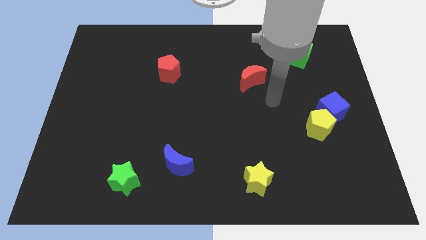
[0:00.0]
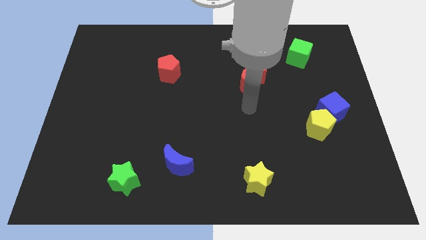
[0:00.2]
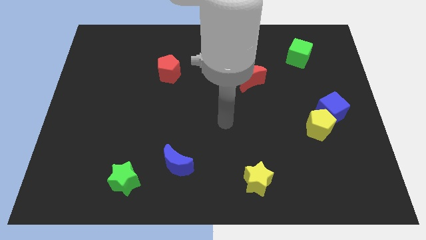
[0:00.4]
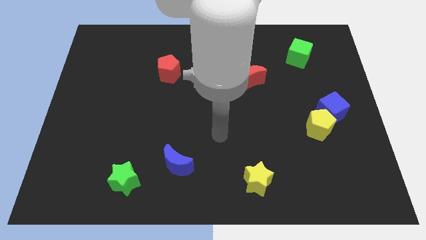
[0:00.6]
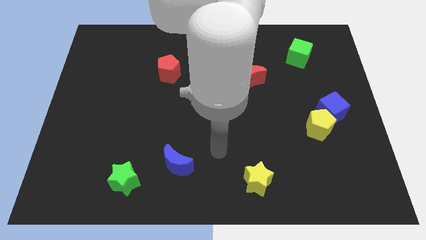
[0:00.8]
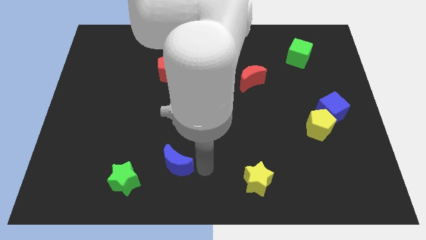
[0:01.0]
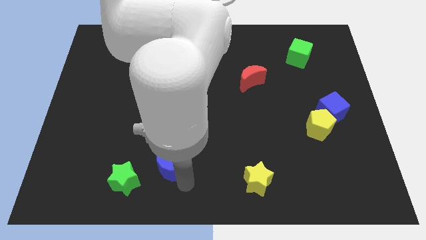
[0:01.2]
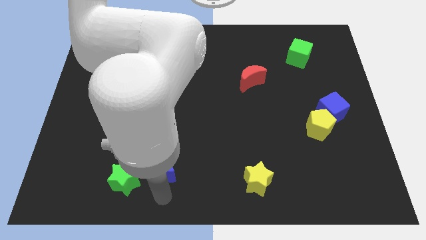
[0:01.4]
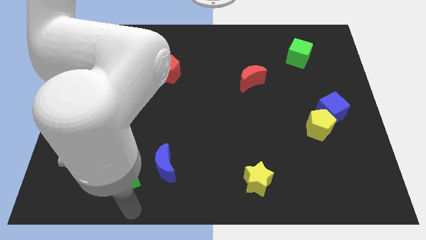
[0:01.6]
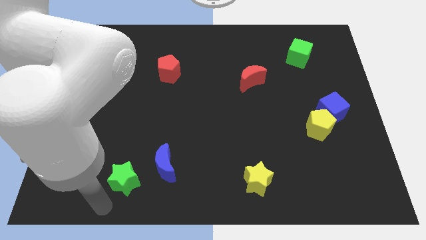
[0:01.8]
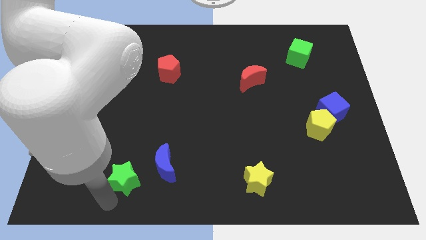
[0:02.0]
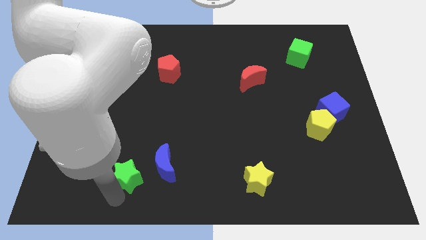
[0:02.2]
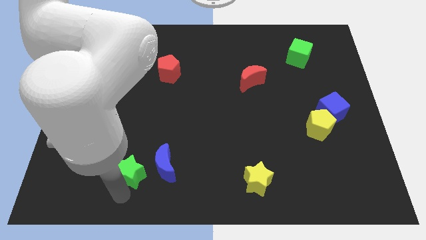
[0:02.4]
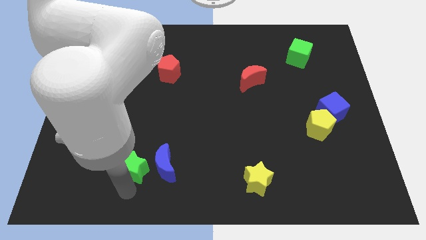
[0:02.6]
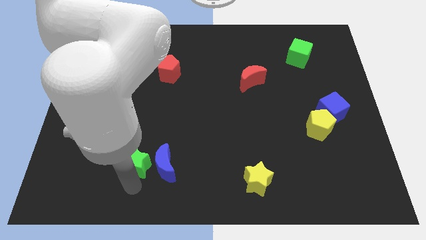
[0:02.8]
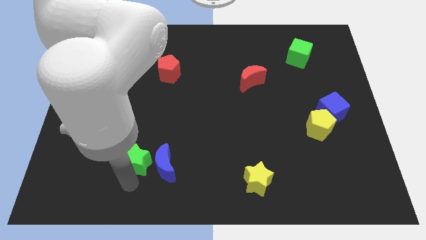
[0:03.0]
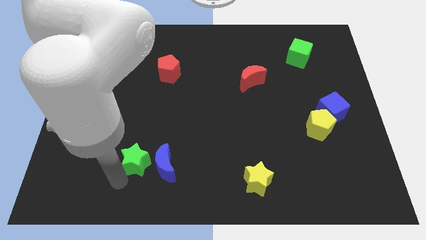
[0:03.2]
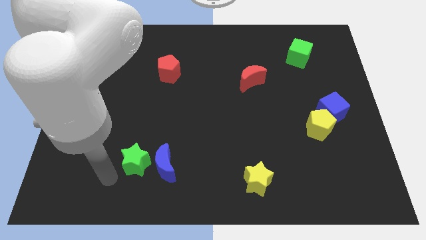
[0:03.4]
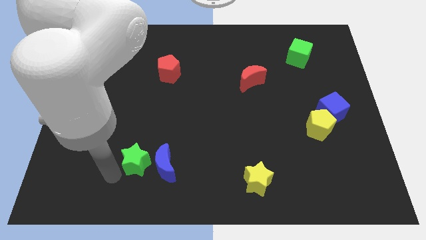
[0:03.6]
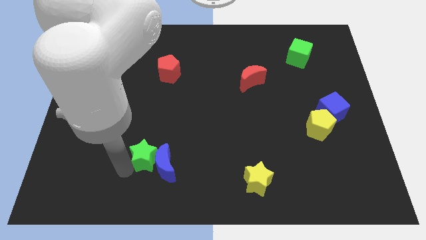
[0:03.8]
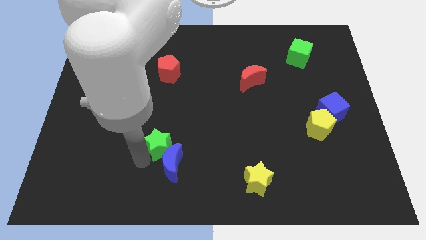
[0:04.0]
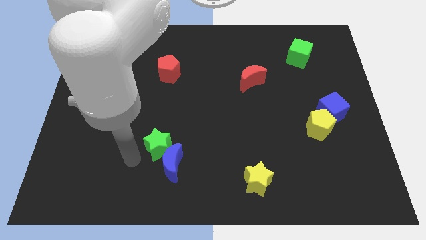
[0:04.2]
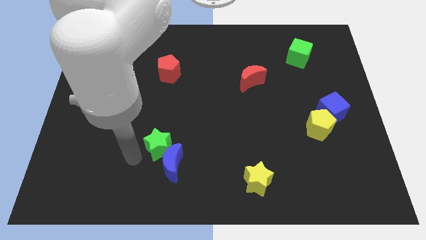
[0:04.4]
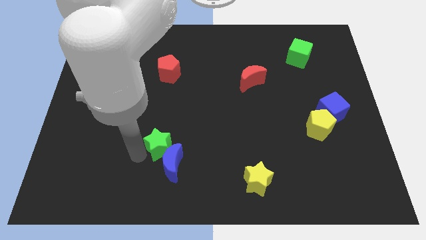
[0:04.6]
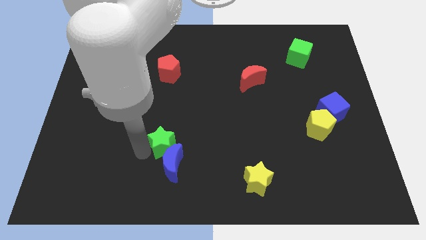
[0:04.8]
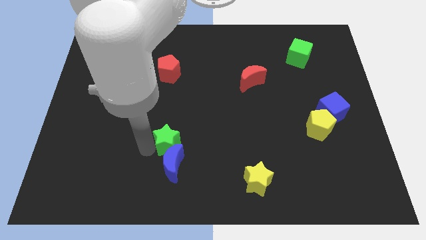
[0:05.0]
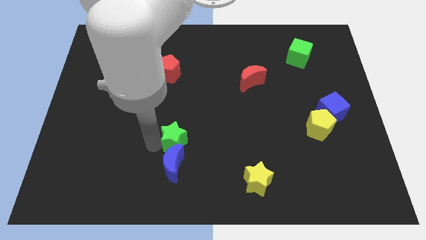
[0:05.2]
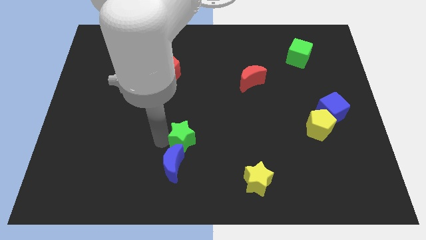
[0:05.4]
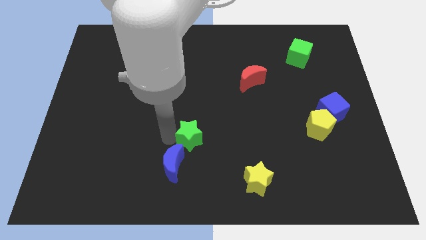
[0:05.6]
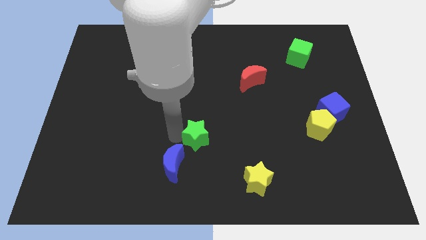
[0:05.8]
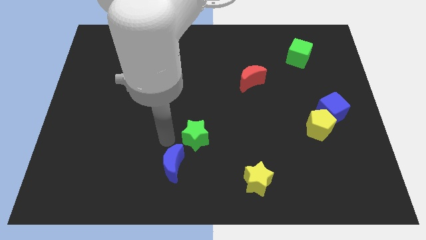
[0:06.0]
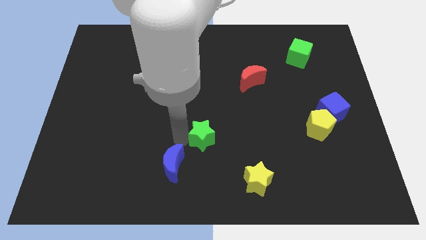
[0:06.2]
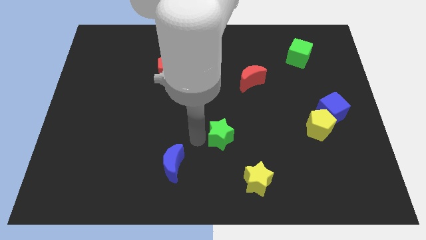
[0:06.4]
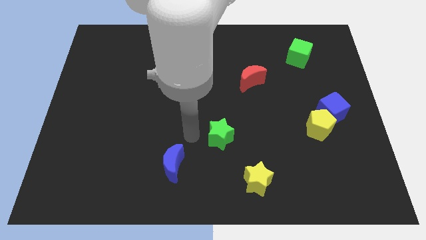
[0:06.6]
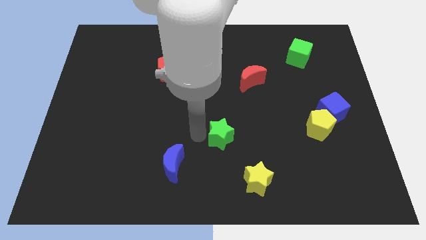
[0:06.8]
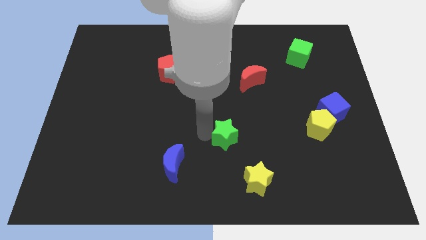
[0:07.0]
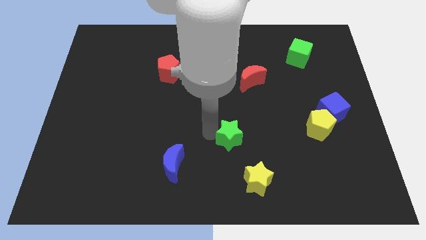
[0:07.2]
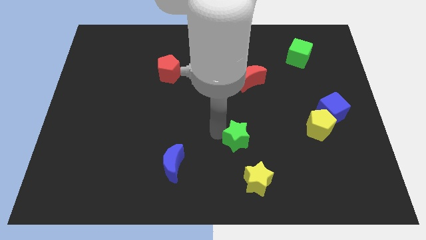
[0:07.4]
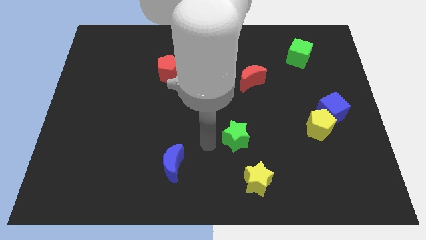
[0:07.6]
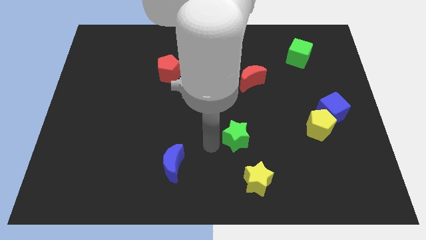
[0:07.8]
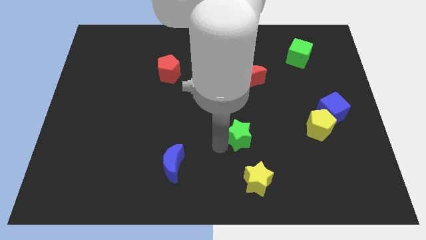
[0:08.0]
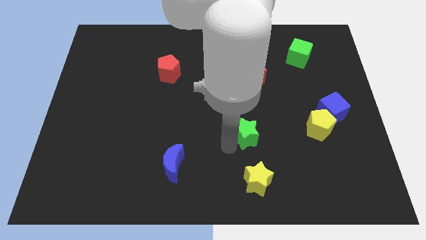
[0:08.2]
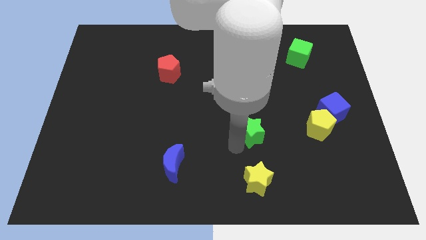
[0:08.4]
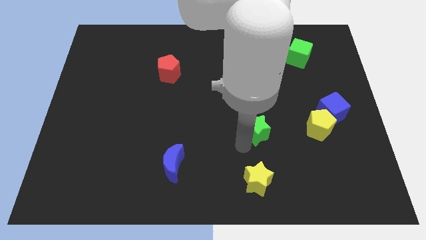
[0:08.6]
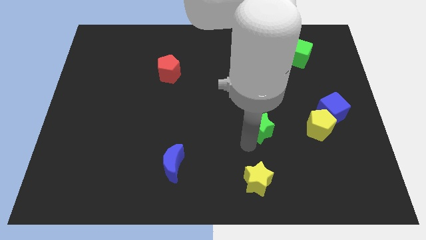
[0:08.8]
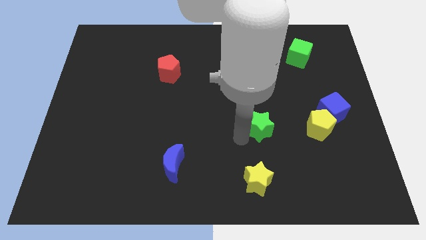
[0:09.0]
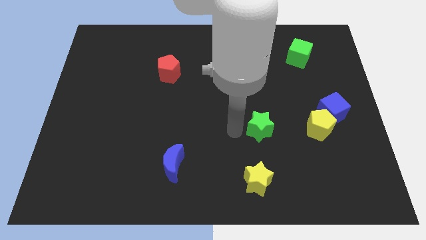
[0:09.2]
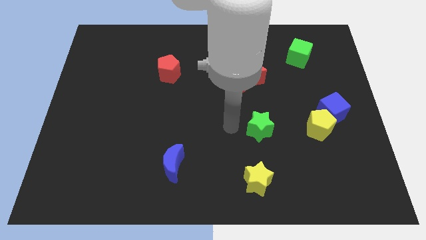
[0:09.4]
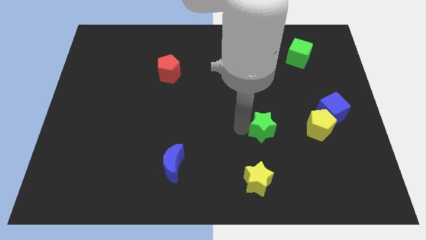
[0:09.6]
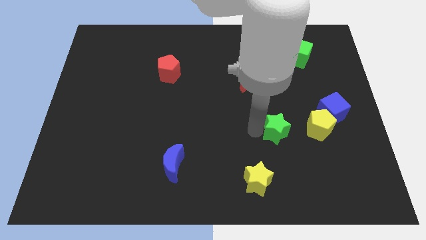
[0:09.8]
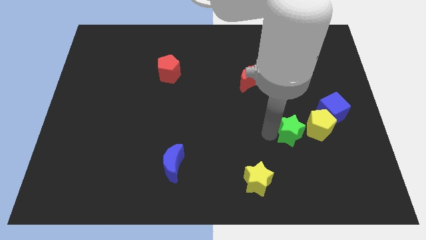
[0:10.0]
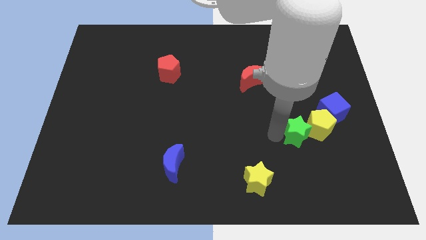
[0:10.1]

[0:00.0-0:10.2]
slide the green star to the yellow pentagon

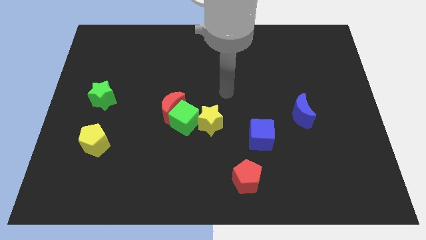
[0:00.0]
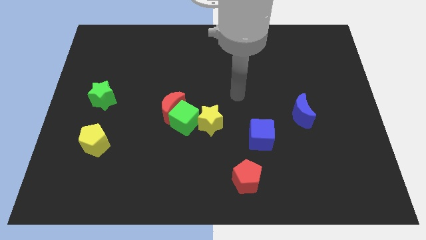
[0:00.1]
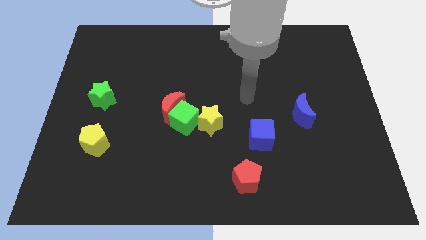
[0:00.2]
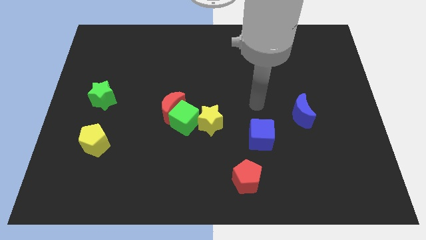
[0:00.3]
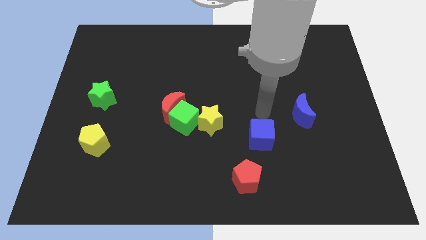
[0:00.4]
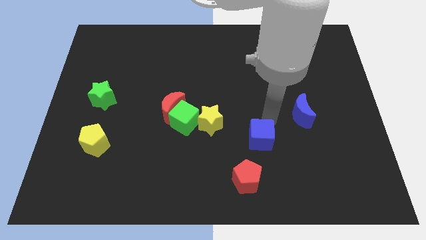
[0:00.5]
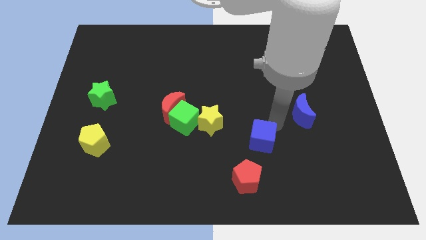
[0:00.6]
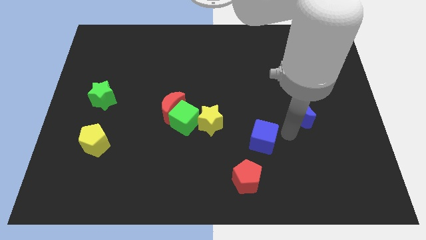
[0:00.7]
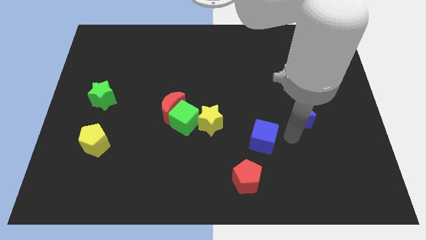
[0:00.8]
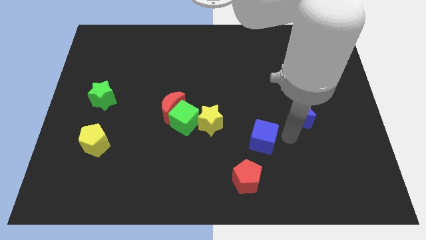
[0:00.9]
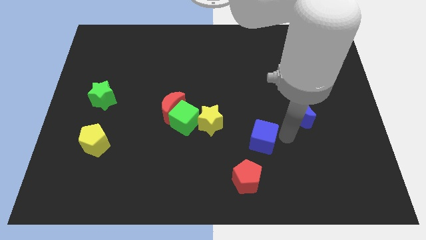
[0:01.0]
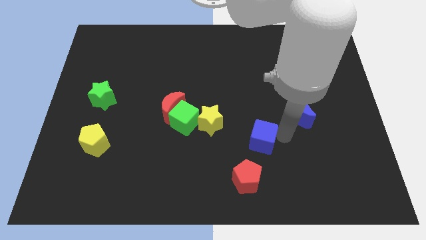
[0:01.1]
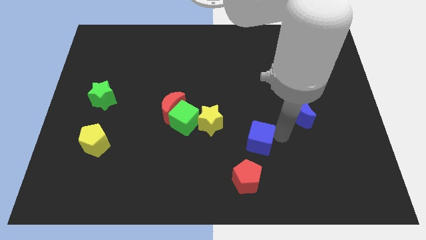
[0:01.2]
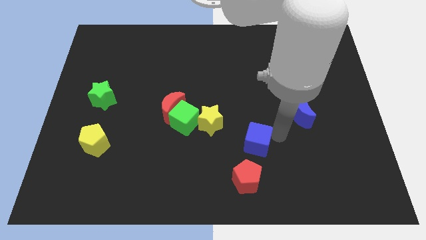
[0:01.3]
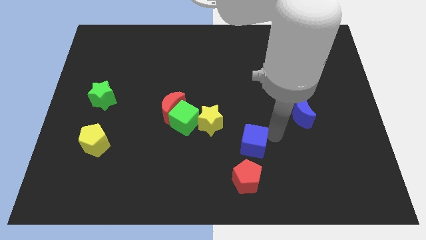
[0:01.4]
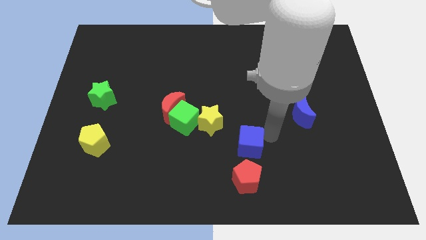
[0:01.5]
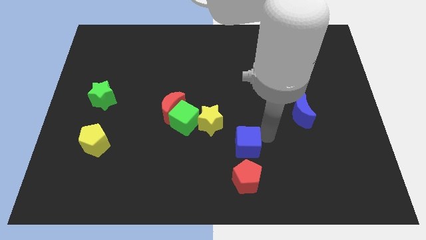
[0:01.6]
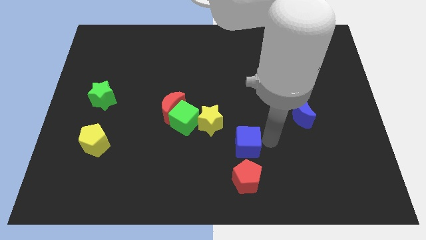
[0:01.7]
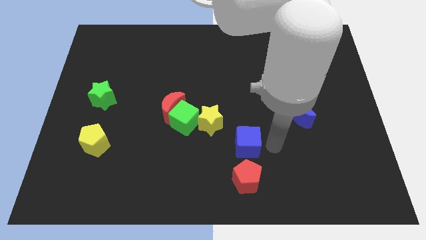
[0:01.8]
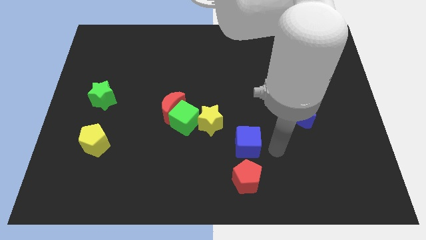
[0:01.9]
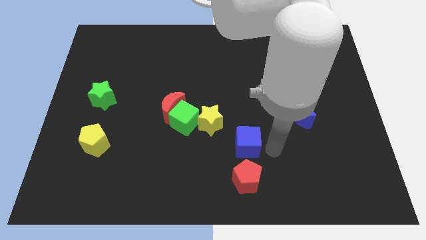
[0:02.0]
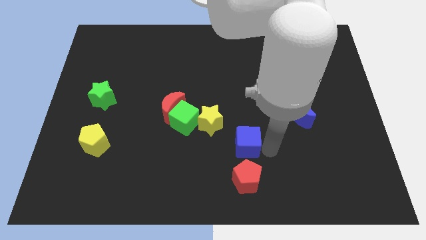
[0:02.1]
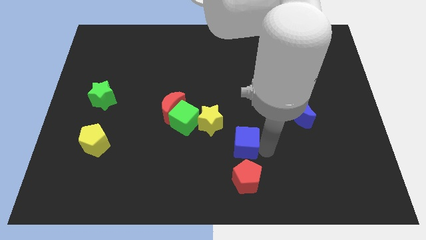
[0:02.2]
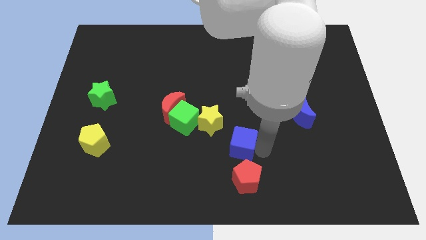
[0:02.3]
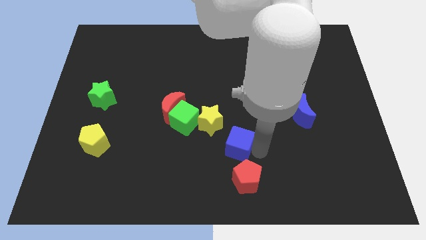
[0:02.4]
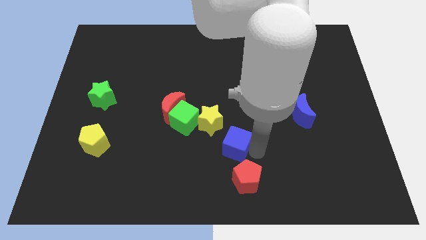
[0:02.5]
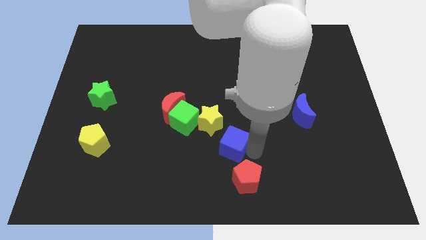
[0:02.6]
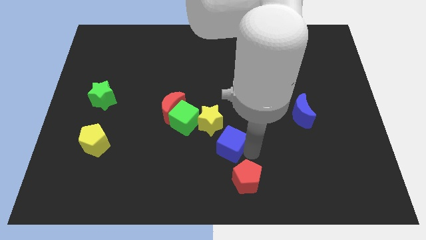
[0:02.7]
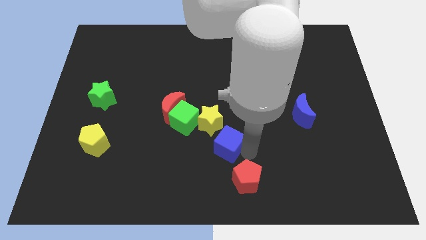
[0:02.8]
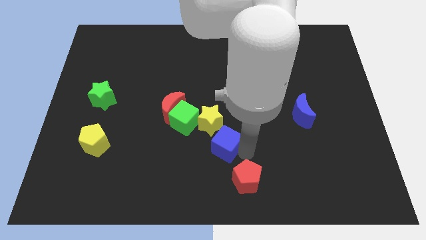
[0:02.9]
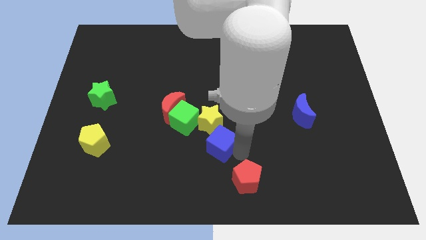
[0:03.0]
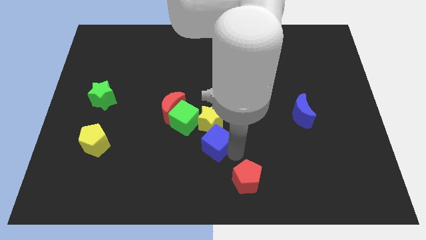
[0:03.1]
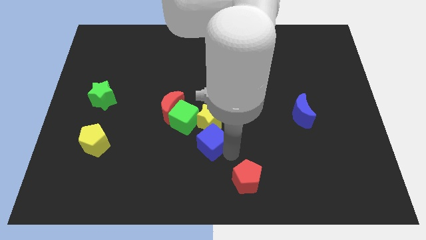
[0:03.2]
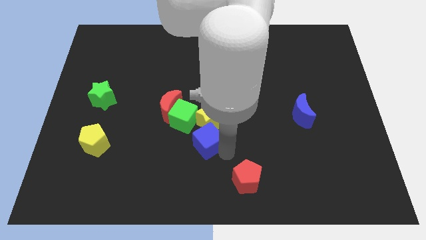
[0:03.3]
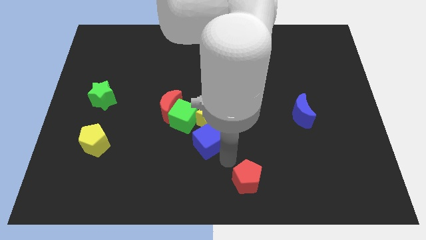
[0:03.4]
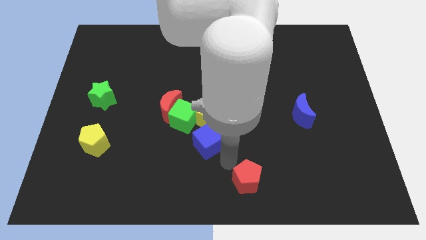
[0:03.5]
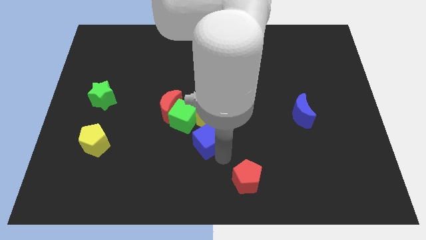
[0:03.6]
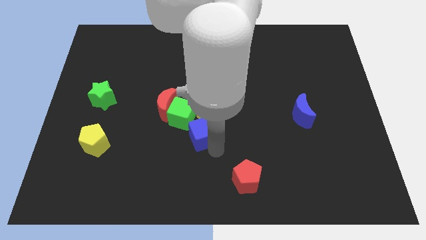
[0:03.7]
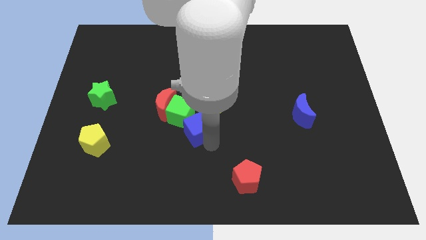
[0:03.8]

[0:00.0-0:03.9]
slide the blue cube next to the green cube
